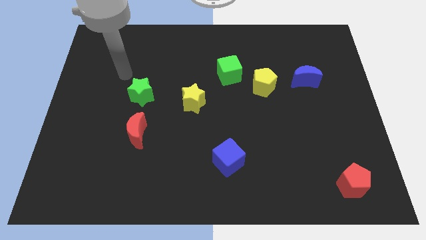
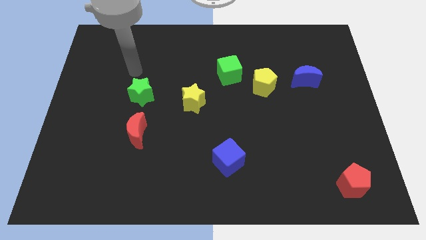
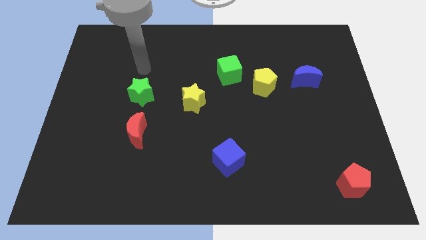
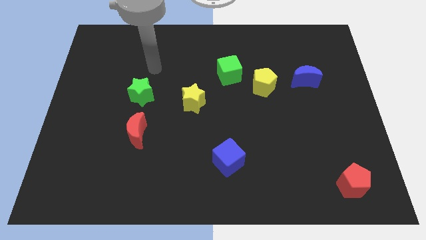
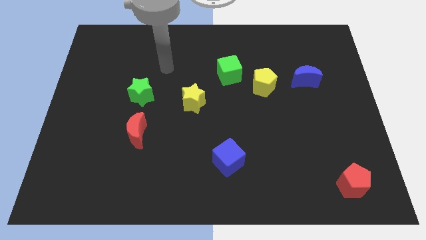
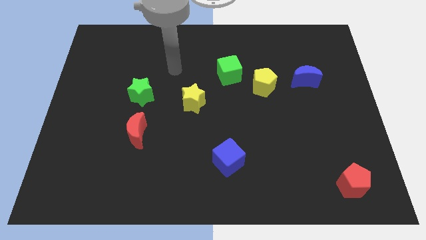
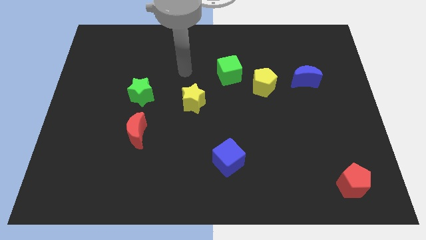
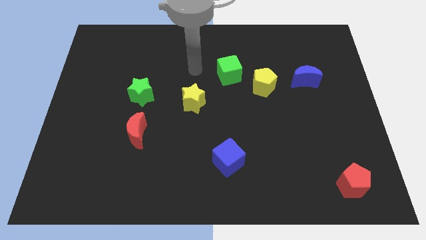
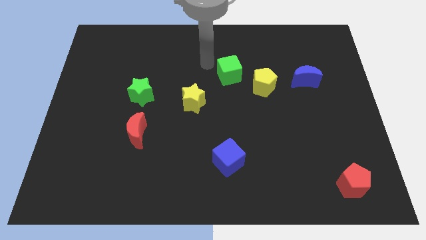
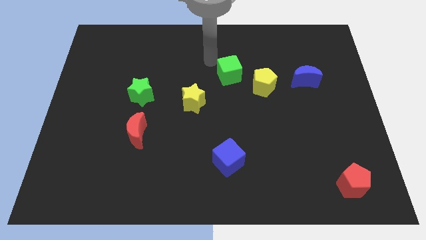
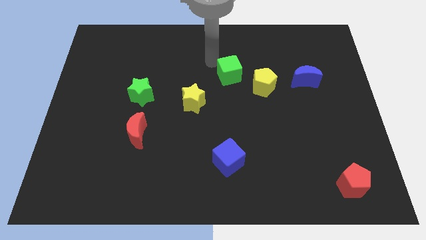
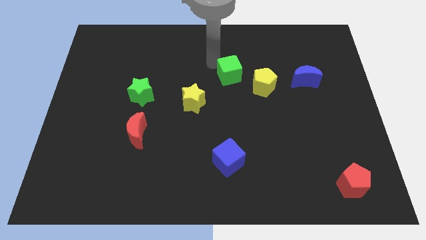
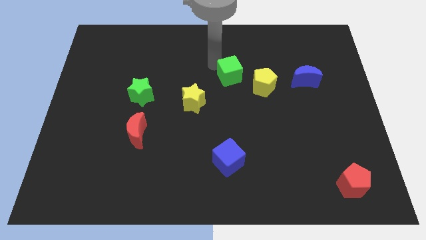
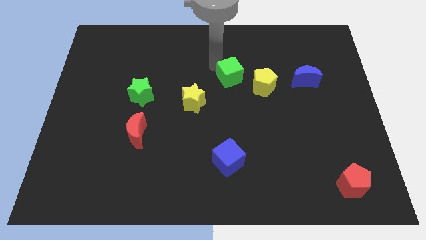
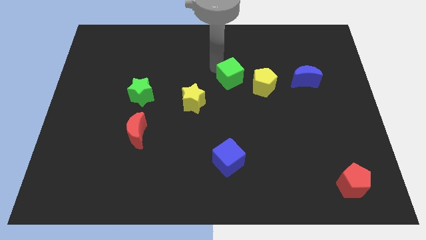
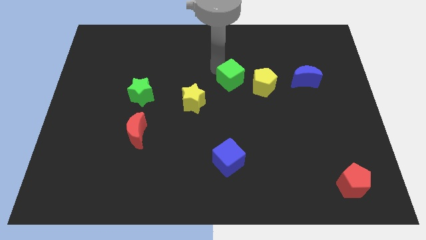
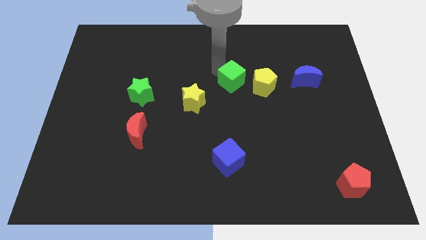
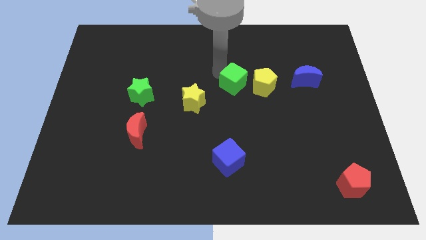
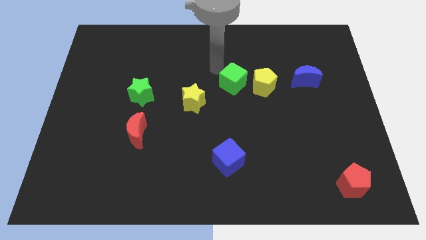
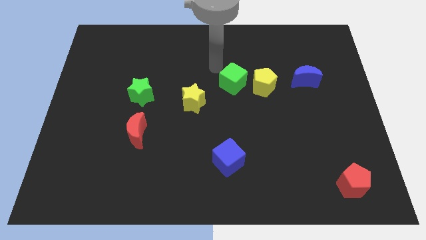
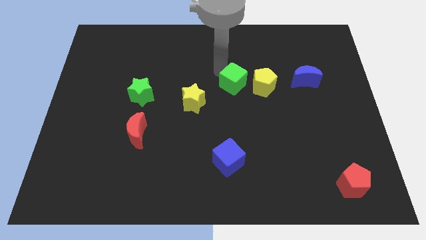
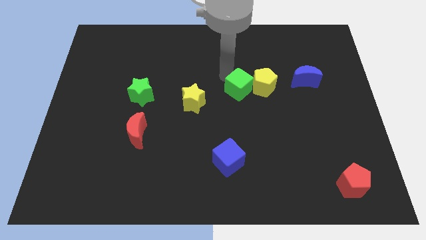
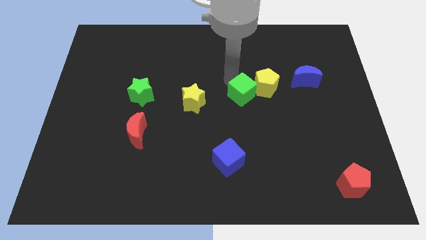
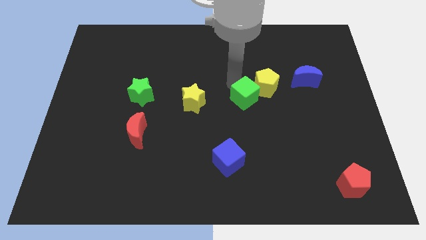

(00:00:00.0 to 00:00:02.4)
slightly slide the green cube down and then right

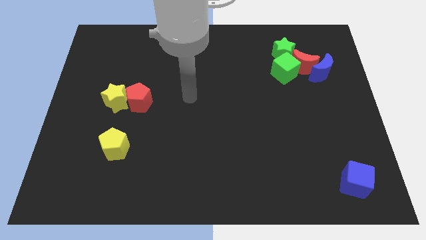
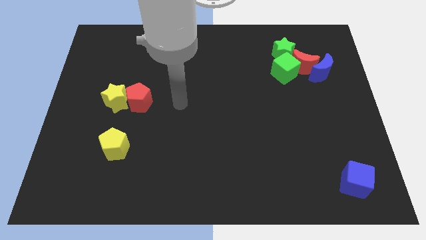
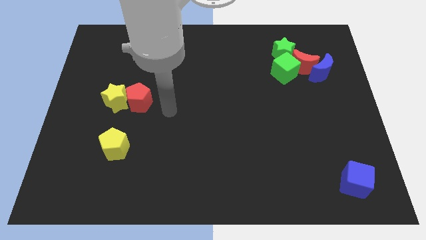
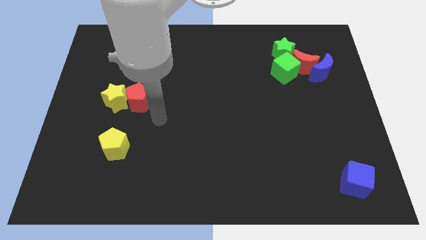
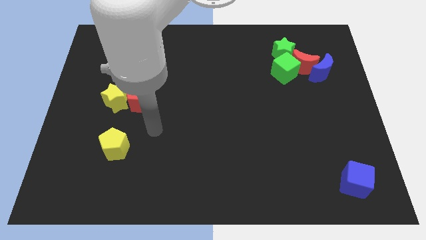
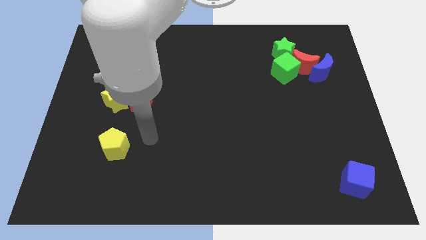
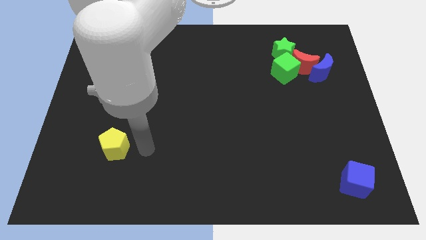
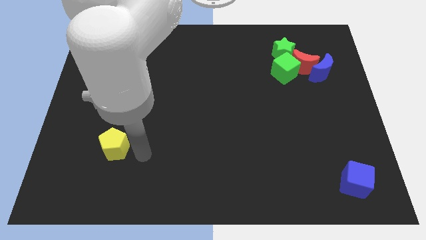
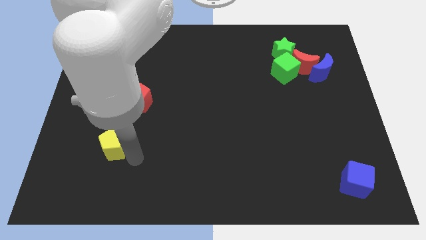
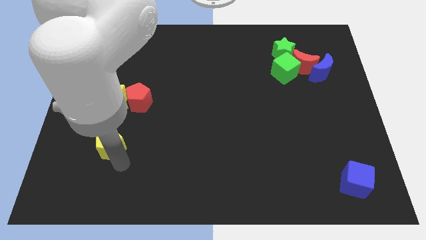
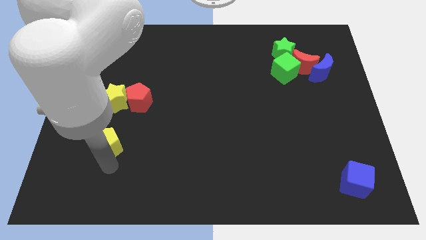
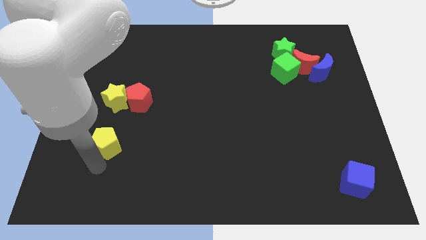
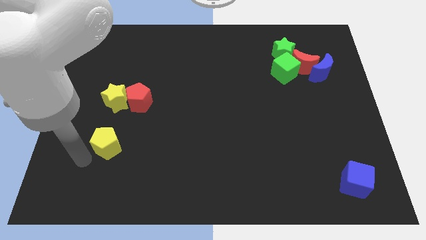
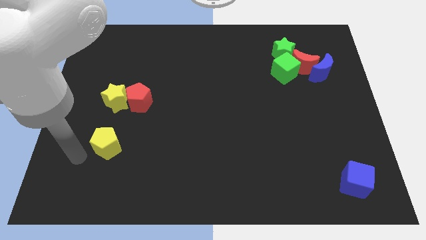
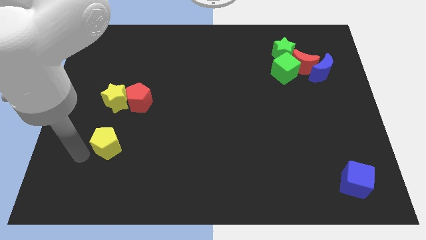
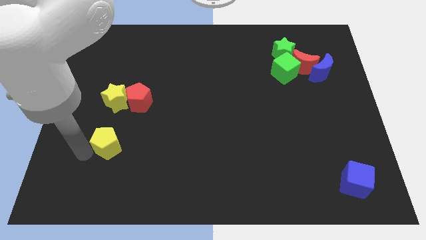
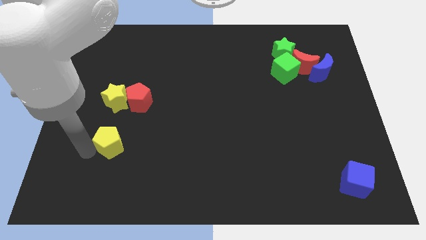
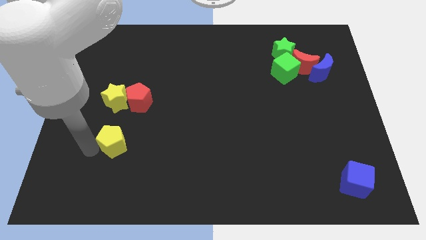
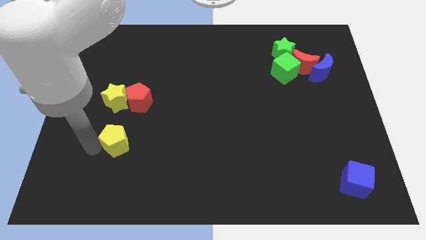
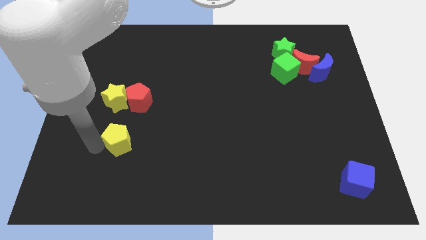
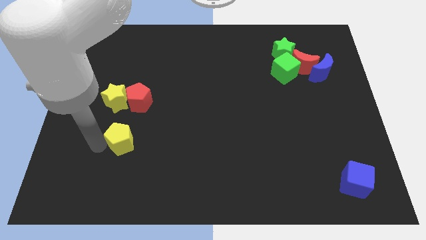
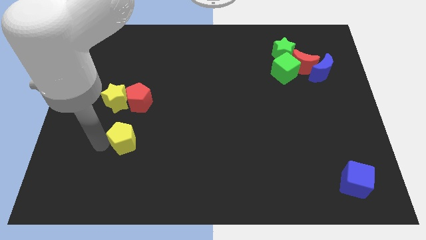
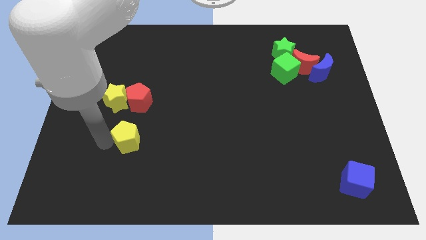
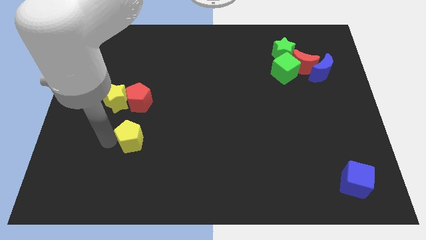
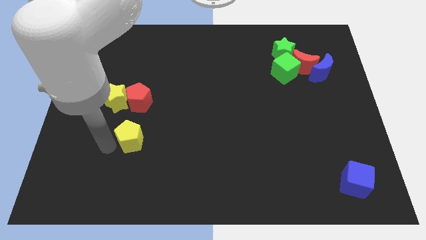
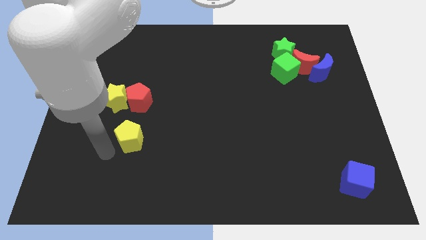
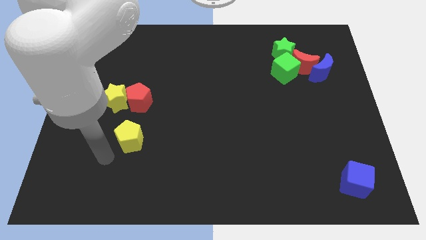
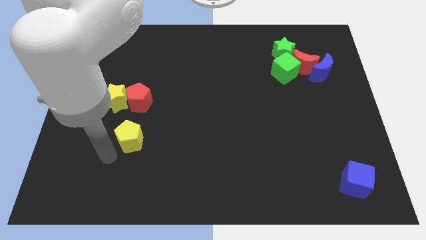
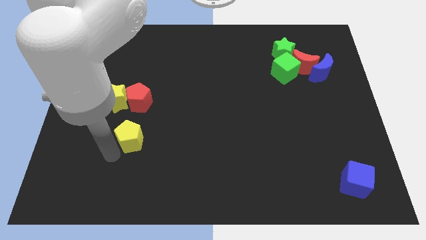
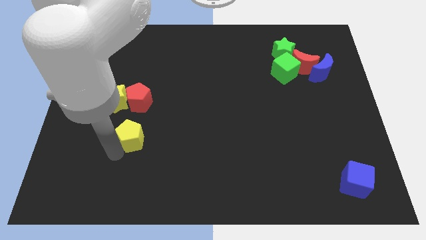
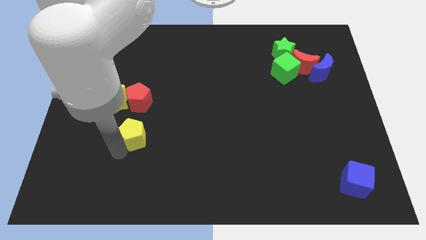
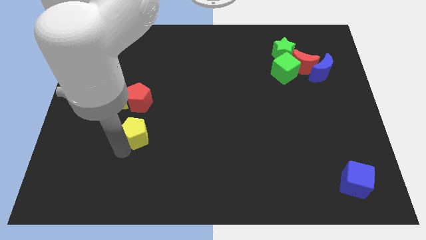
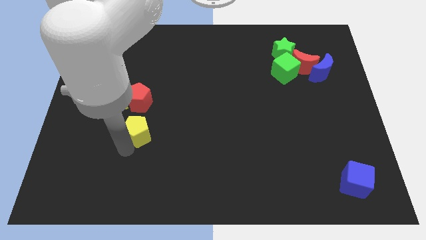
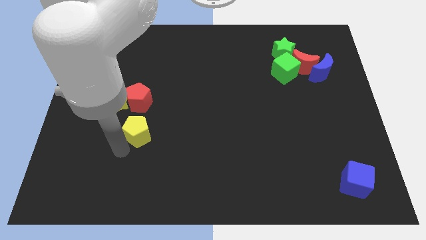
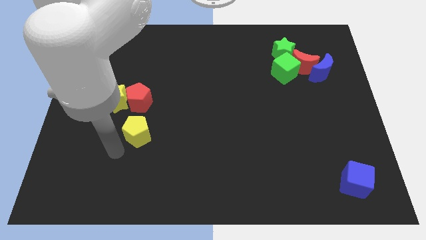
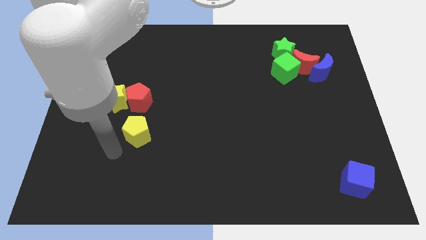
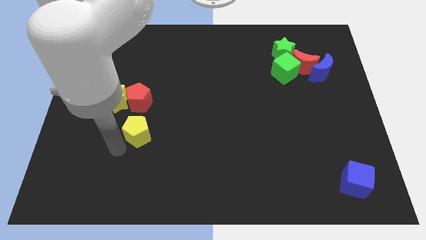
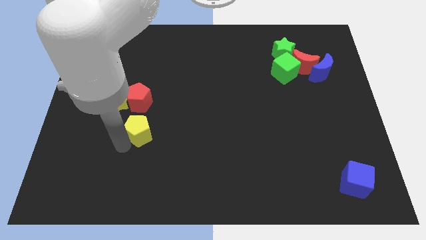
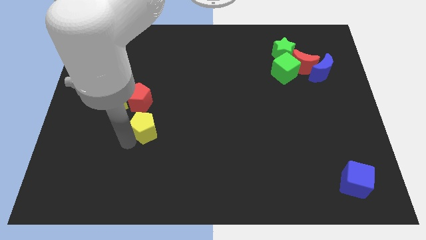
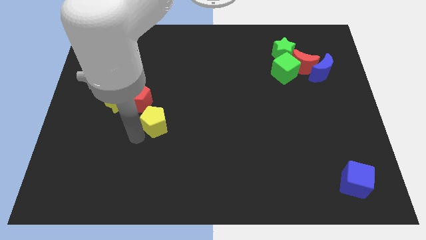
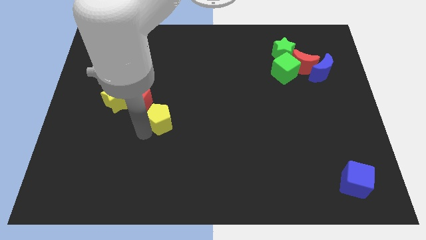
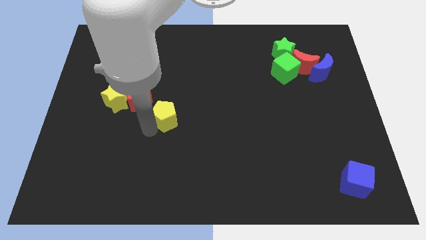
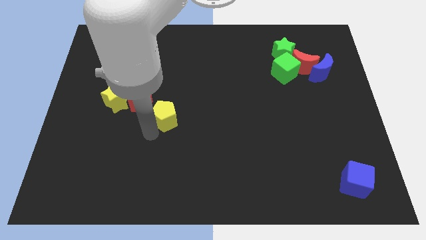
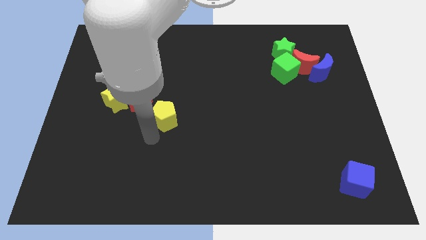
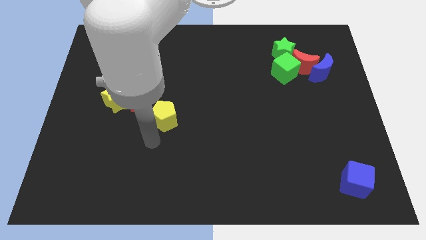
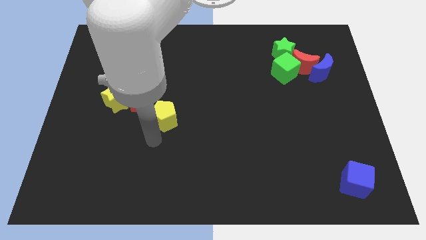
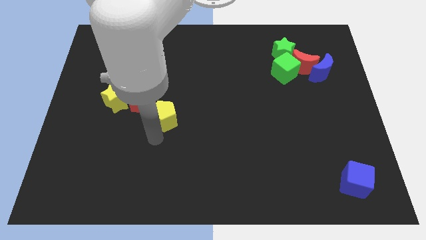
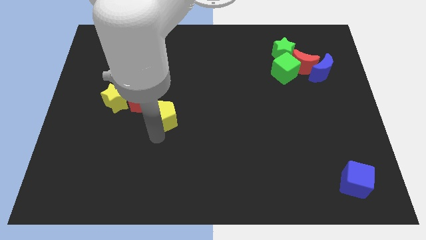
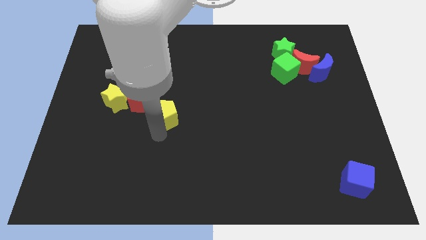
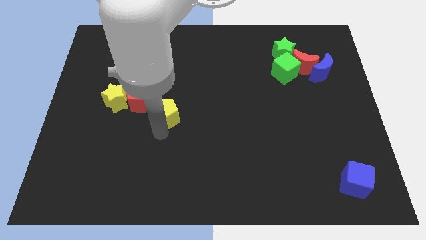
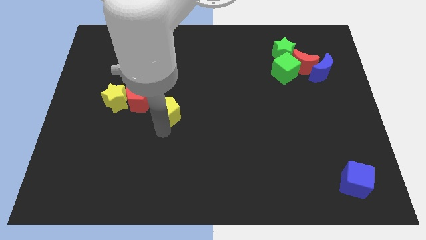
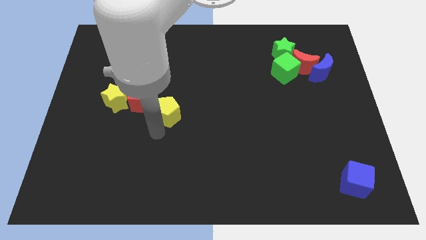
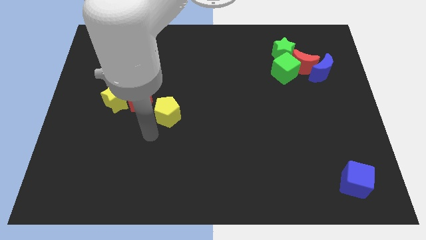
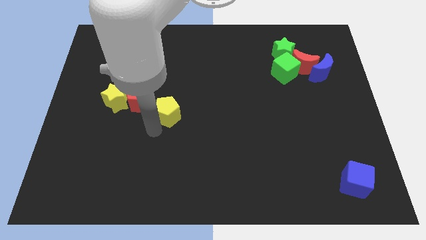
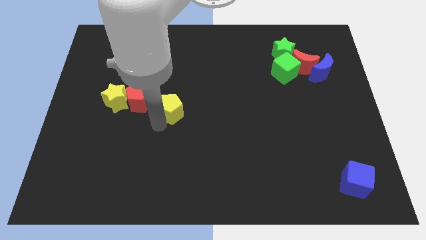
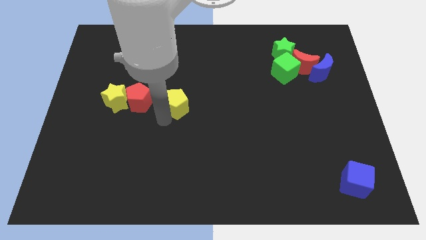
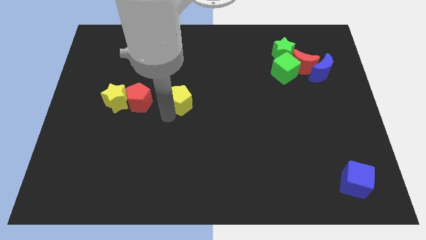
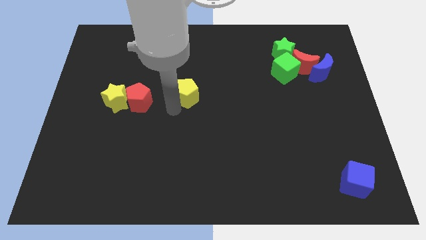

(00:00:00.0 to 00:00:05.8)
move the yellow pentagon upwards and then right
